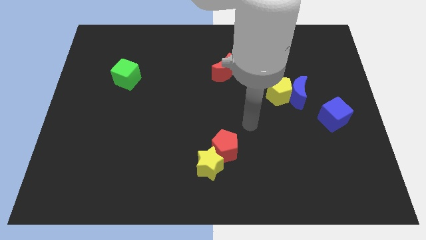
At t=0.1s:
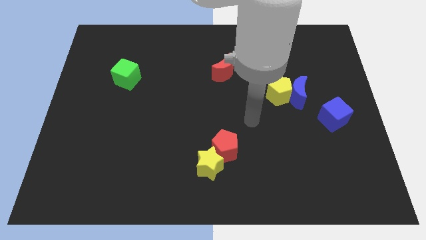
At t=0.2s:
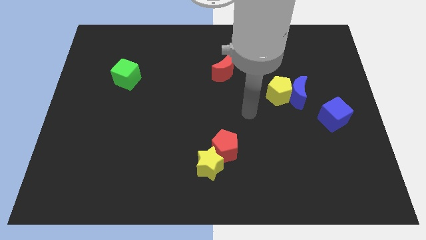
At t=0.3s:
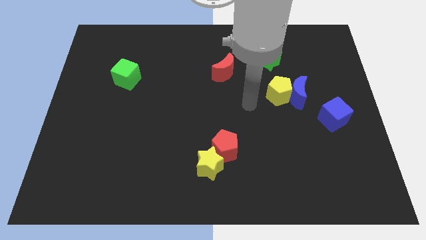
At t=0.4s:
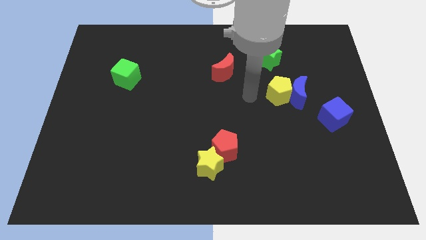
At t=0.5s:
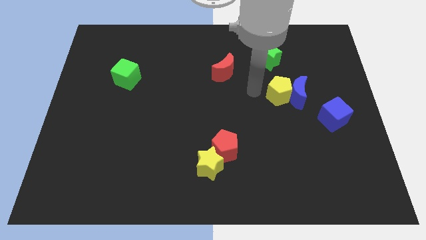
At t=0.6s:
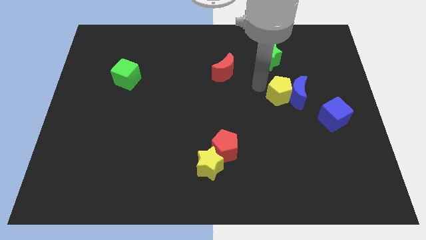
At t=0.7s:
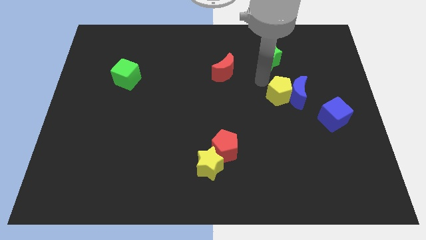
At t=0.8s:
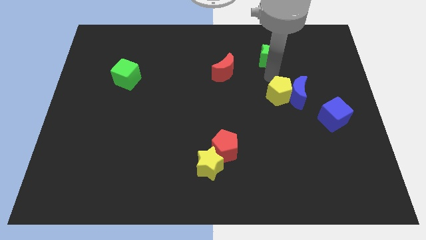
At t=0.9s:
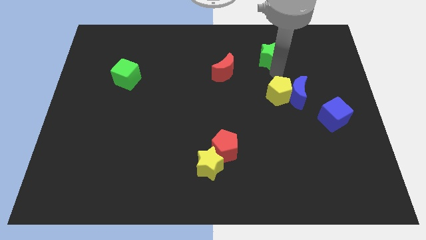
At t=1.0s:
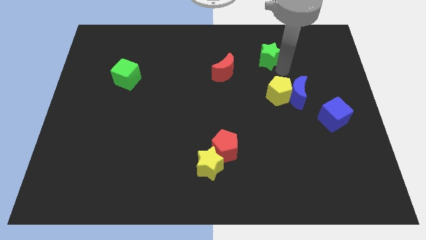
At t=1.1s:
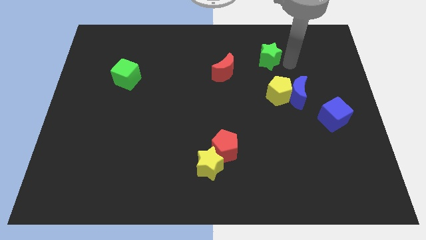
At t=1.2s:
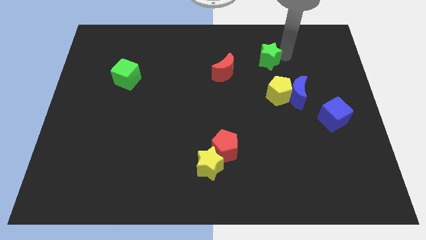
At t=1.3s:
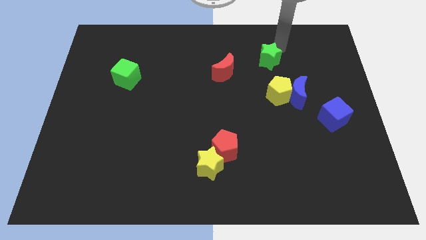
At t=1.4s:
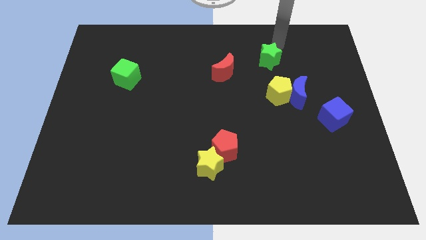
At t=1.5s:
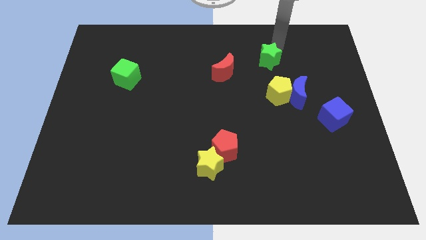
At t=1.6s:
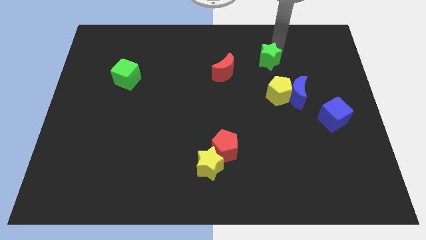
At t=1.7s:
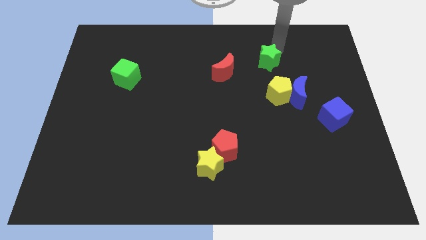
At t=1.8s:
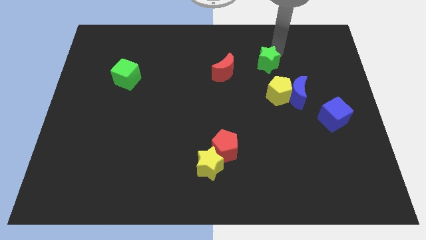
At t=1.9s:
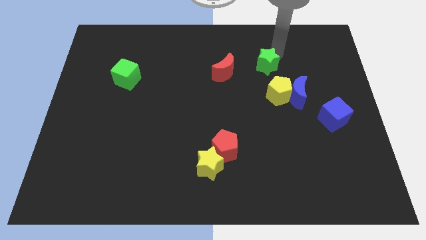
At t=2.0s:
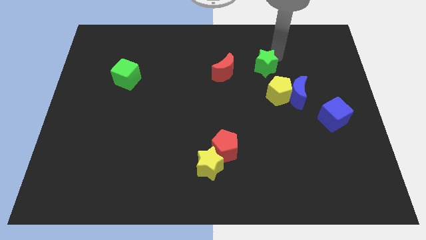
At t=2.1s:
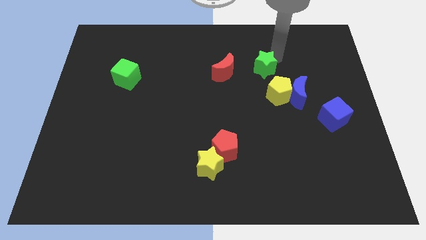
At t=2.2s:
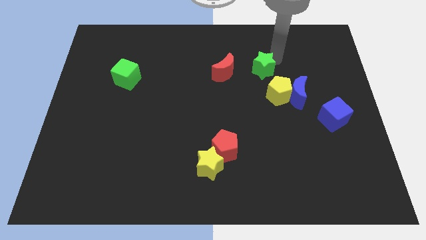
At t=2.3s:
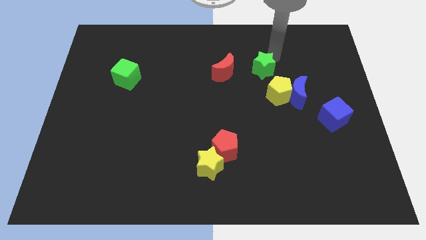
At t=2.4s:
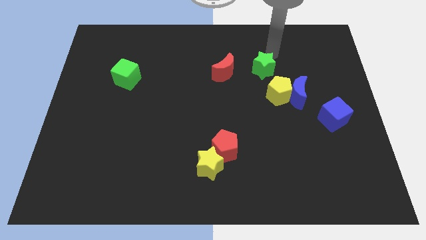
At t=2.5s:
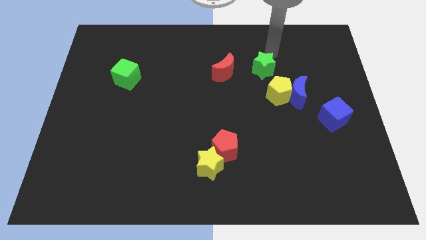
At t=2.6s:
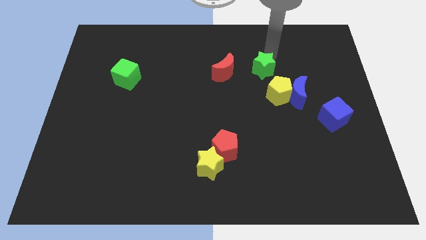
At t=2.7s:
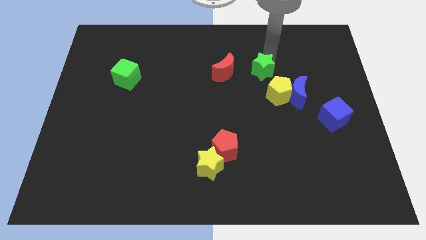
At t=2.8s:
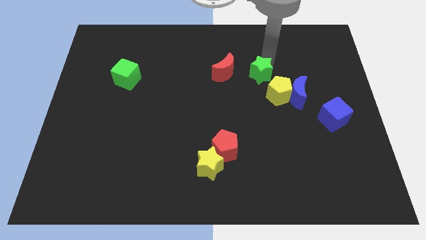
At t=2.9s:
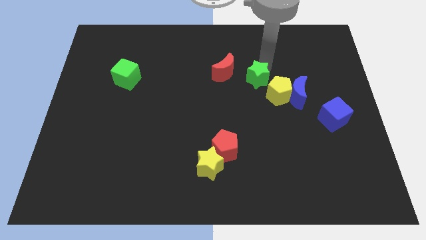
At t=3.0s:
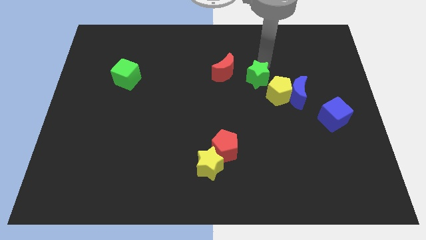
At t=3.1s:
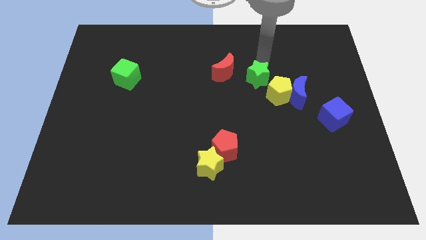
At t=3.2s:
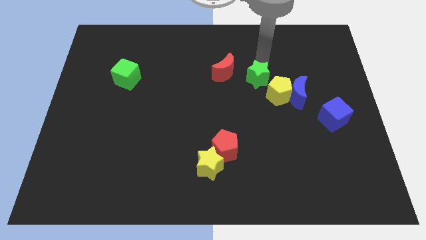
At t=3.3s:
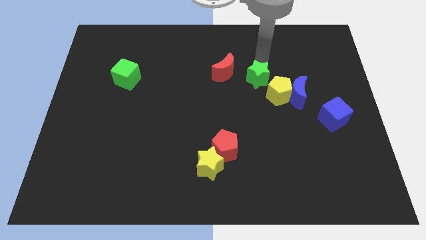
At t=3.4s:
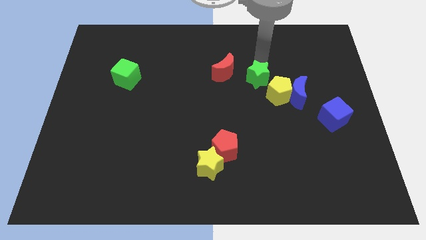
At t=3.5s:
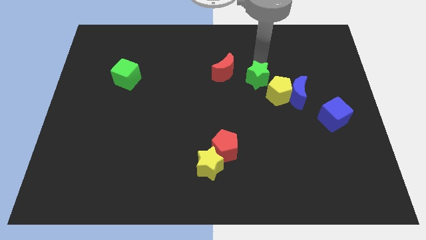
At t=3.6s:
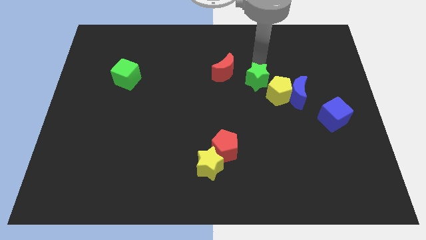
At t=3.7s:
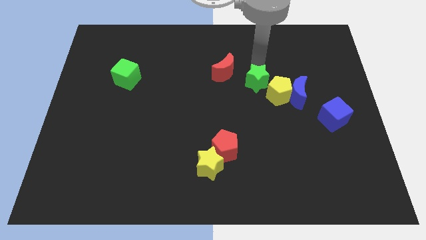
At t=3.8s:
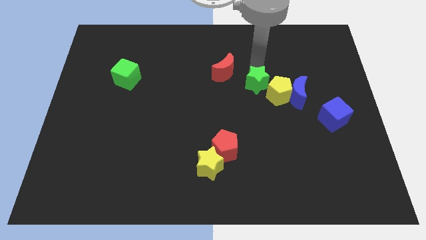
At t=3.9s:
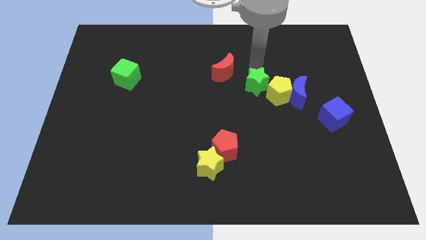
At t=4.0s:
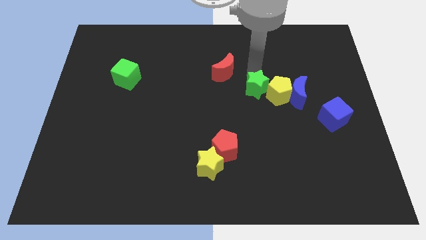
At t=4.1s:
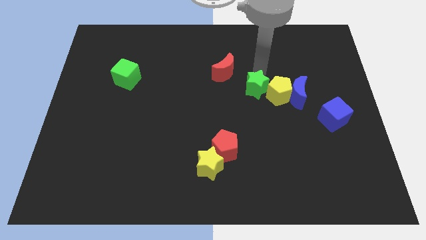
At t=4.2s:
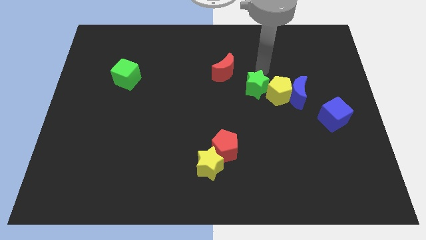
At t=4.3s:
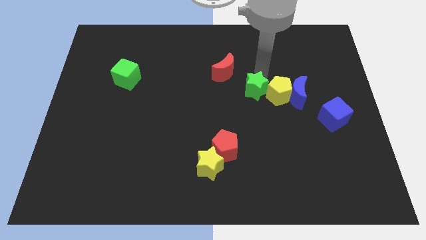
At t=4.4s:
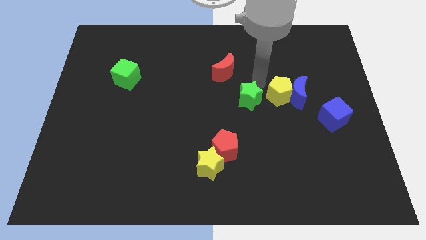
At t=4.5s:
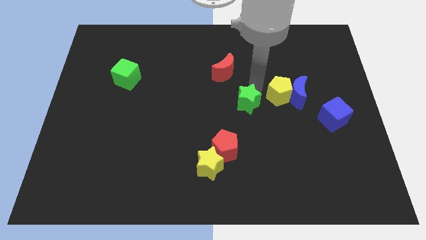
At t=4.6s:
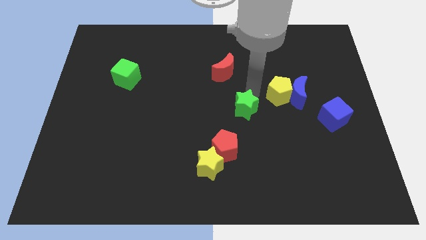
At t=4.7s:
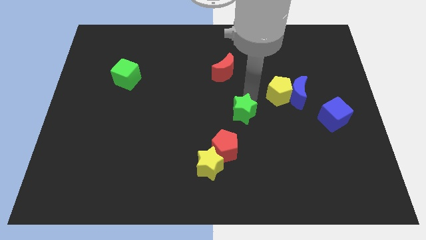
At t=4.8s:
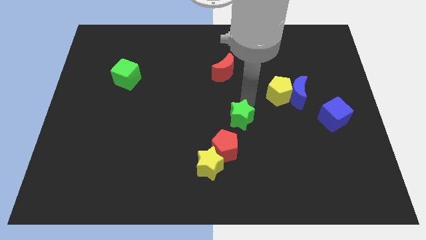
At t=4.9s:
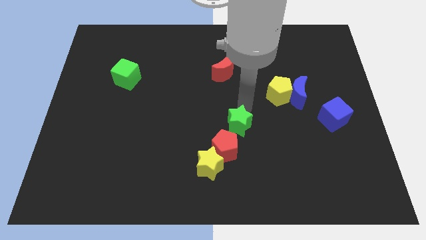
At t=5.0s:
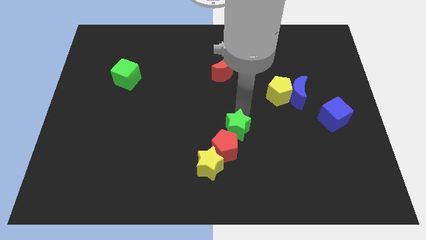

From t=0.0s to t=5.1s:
slide the green star close to the red pentagon

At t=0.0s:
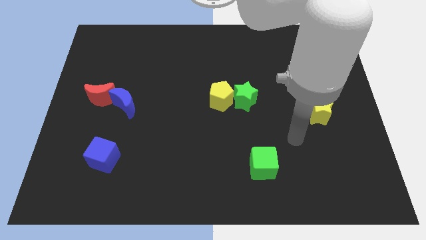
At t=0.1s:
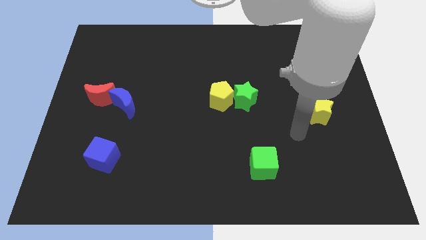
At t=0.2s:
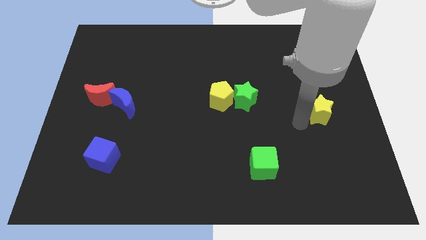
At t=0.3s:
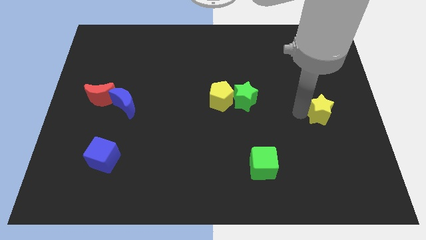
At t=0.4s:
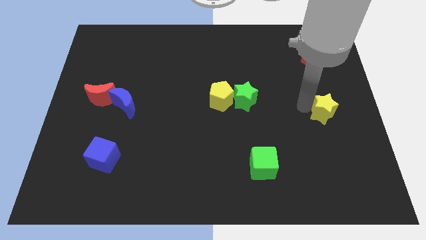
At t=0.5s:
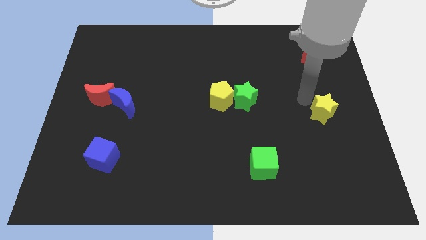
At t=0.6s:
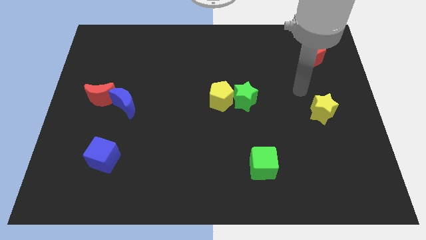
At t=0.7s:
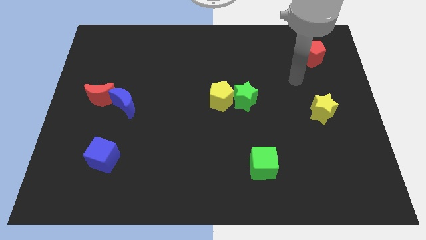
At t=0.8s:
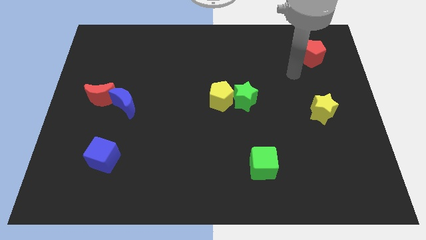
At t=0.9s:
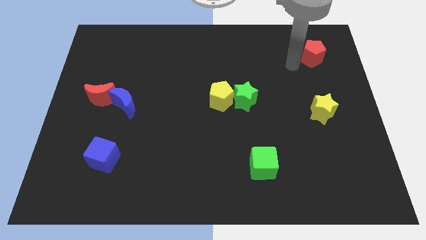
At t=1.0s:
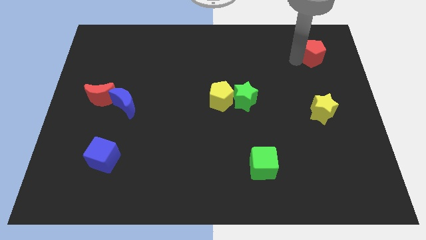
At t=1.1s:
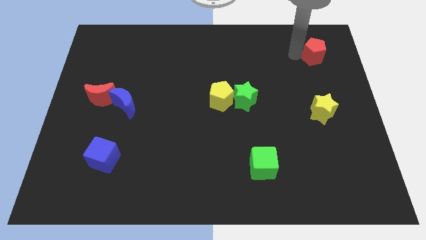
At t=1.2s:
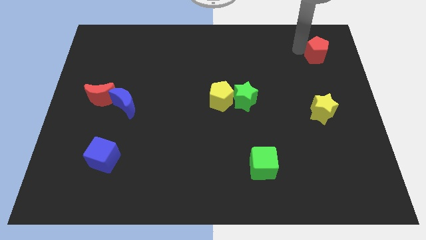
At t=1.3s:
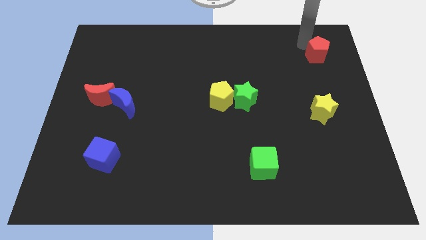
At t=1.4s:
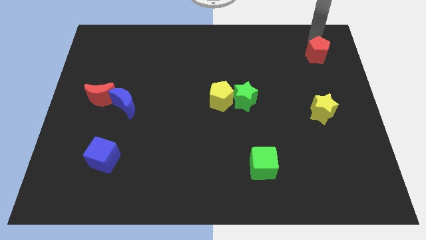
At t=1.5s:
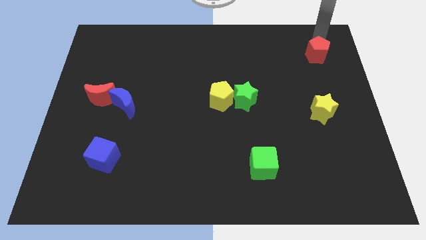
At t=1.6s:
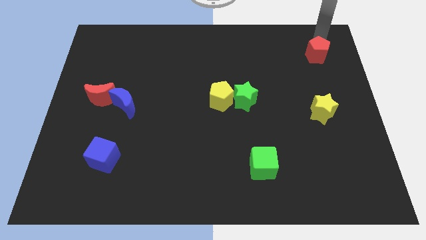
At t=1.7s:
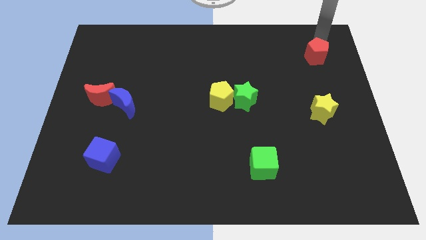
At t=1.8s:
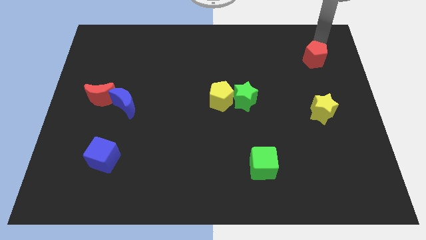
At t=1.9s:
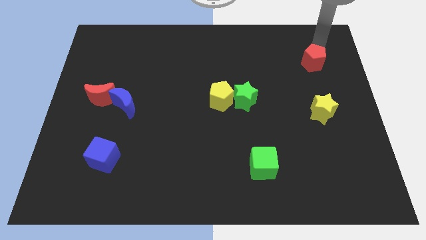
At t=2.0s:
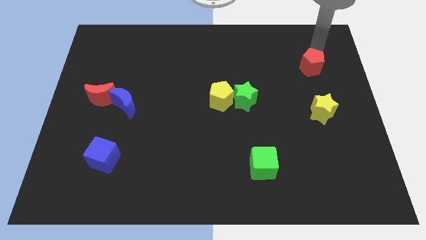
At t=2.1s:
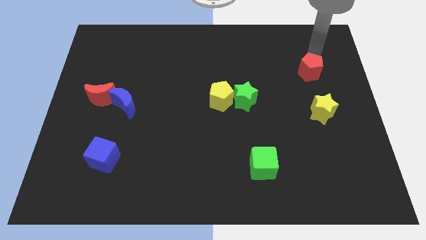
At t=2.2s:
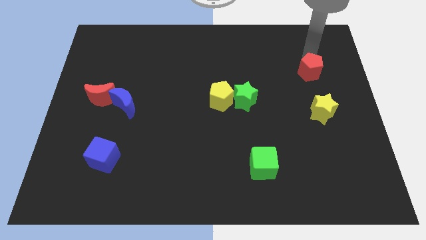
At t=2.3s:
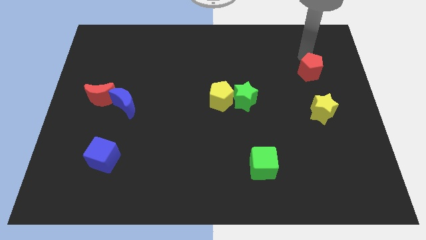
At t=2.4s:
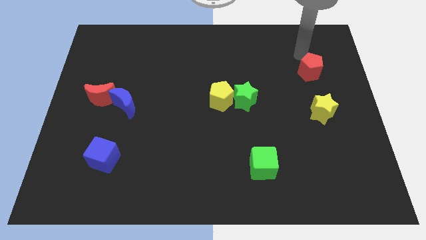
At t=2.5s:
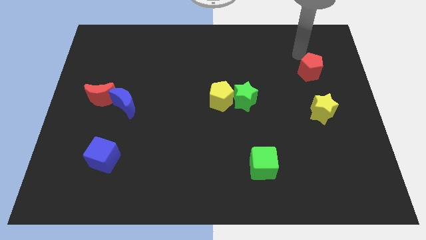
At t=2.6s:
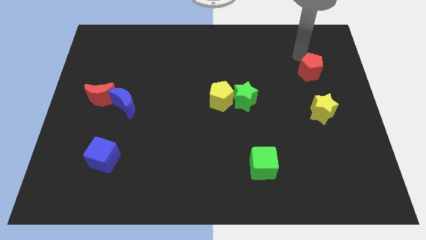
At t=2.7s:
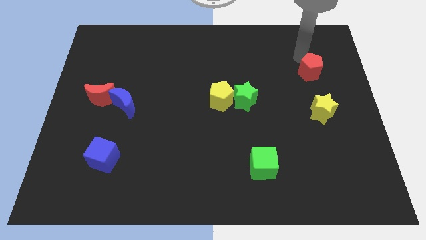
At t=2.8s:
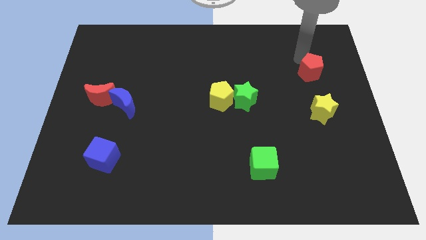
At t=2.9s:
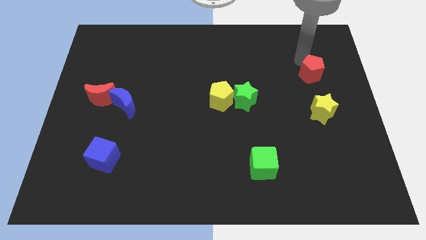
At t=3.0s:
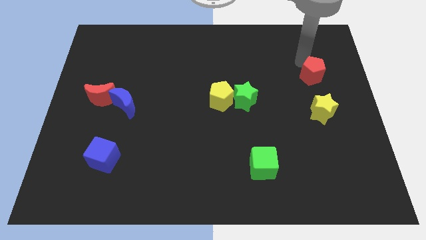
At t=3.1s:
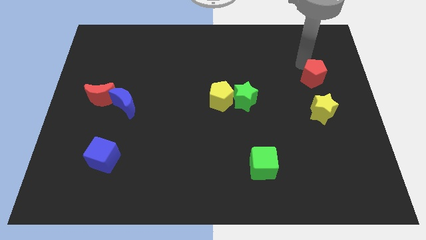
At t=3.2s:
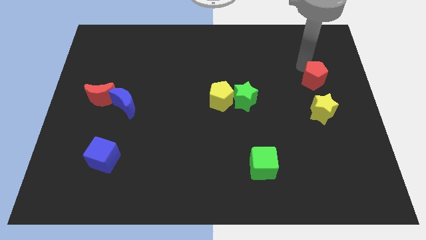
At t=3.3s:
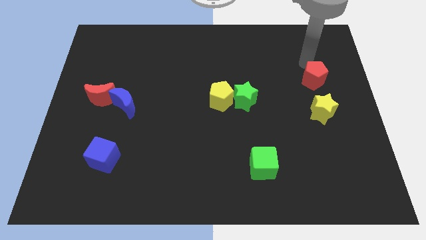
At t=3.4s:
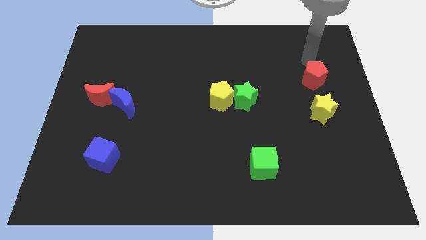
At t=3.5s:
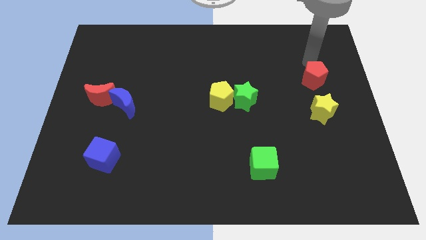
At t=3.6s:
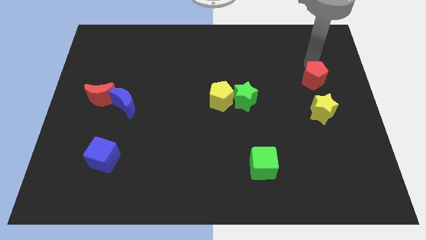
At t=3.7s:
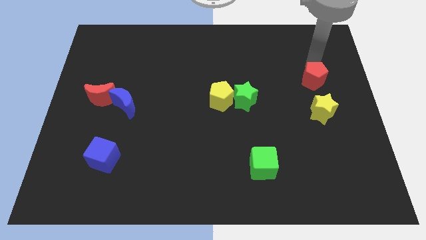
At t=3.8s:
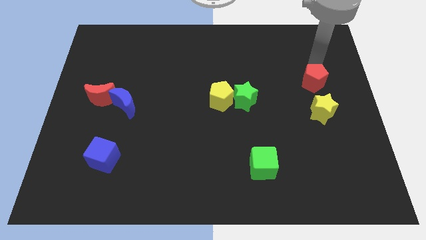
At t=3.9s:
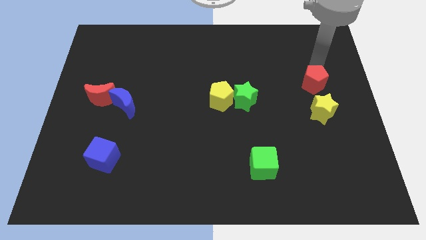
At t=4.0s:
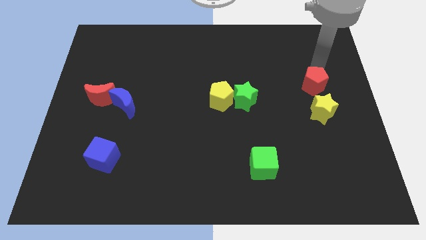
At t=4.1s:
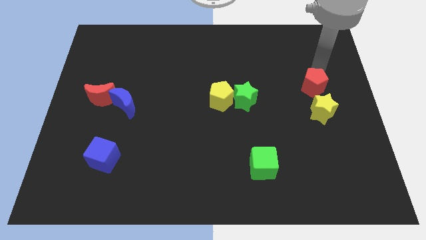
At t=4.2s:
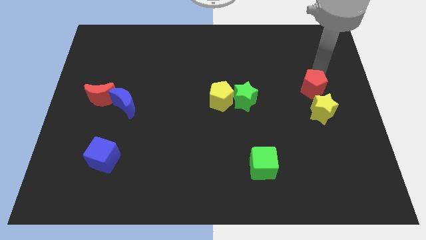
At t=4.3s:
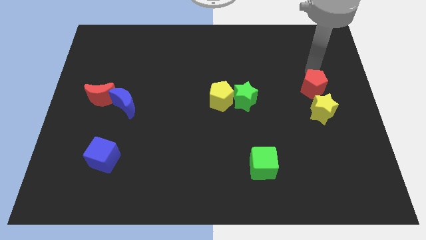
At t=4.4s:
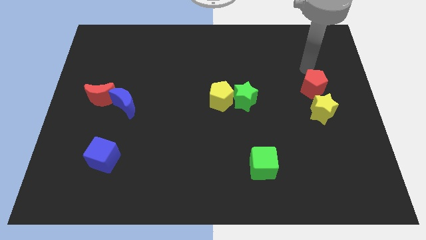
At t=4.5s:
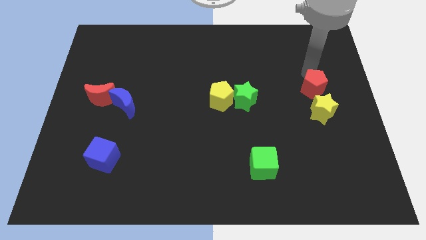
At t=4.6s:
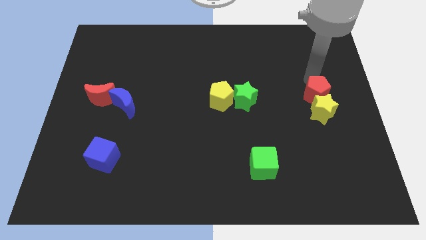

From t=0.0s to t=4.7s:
move the red pentagon close to the yellow star
